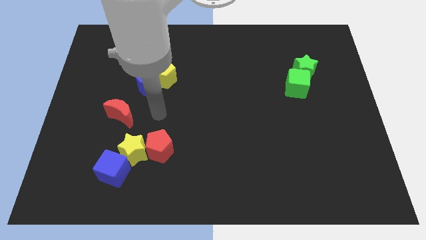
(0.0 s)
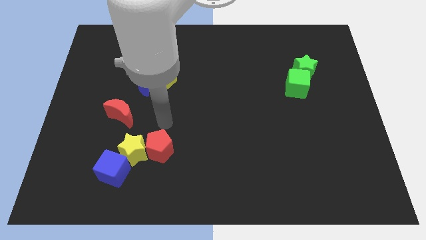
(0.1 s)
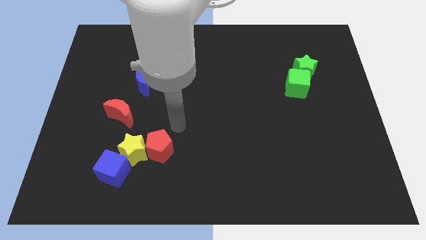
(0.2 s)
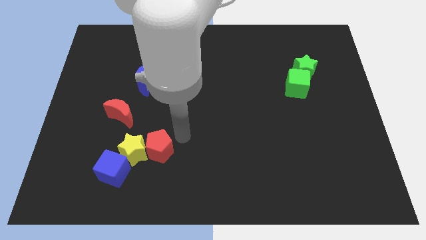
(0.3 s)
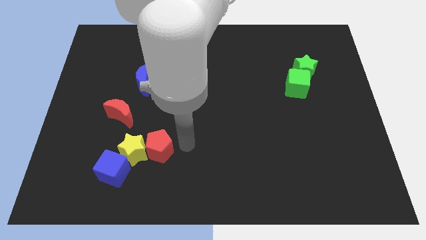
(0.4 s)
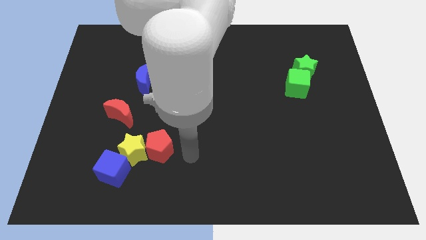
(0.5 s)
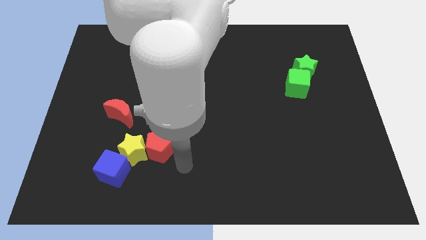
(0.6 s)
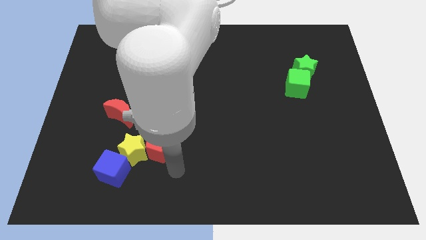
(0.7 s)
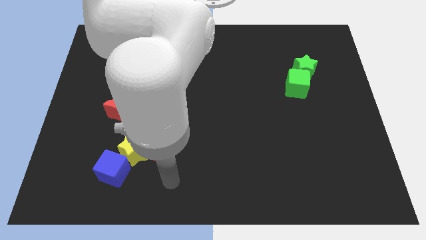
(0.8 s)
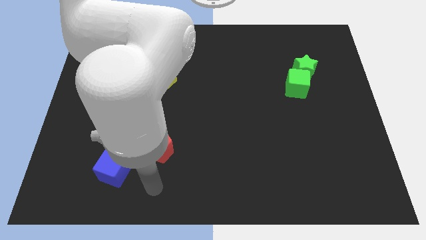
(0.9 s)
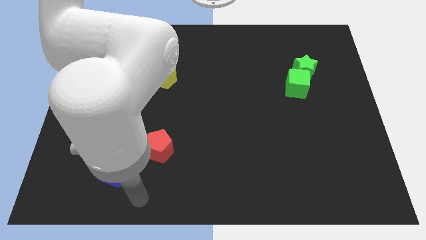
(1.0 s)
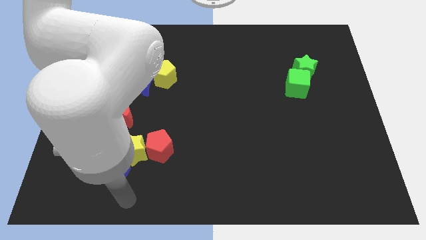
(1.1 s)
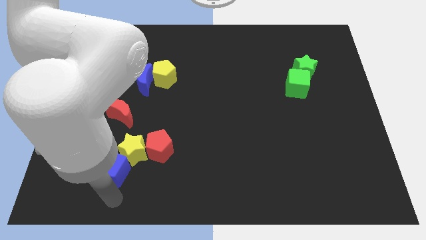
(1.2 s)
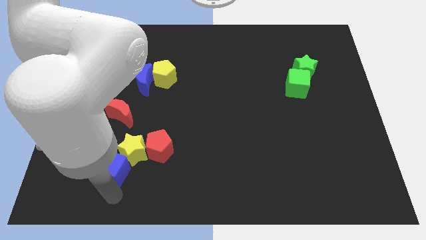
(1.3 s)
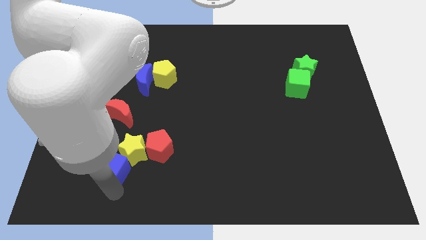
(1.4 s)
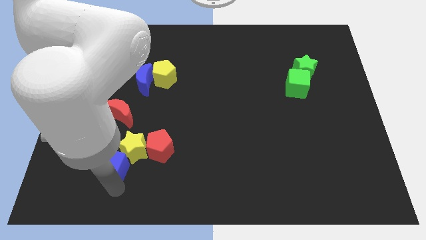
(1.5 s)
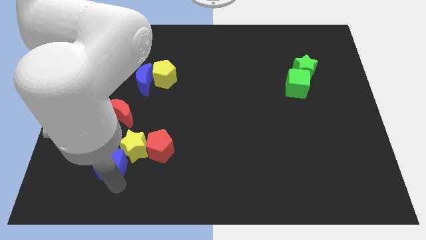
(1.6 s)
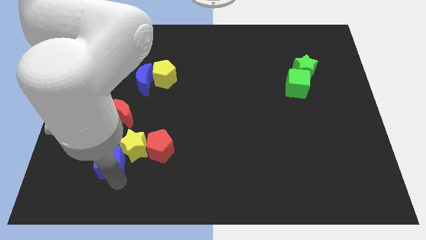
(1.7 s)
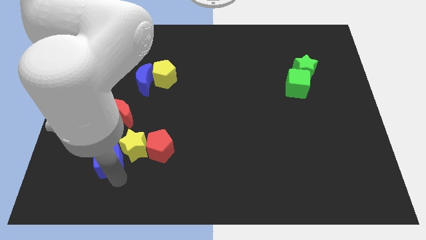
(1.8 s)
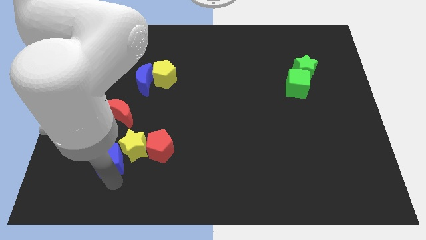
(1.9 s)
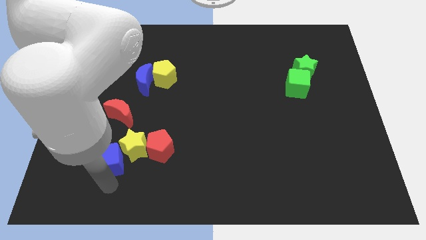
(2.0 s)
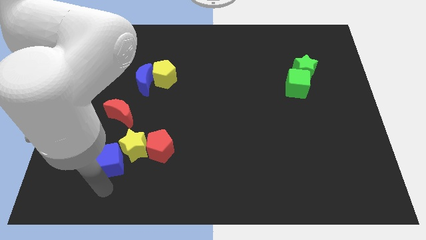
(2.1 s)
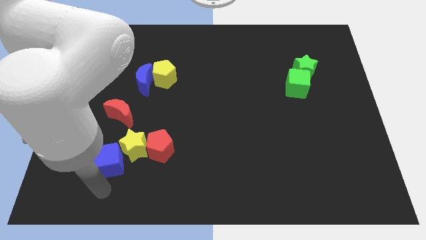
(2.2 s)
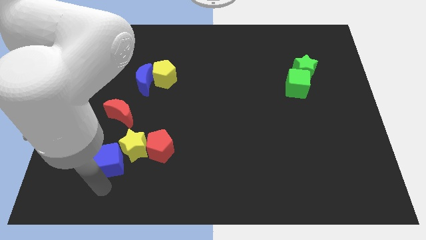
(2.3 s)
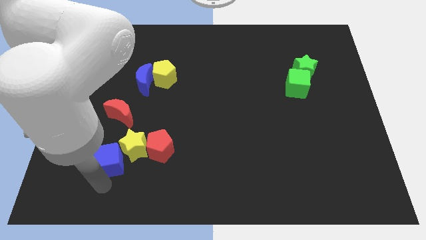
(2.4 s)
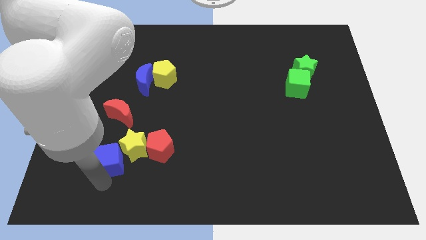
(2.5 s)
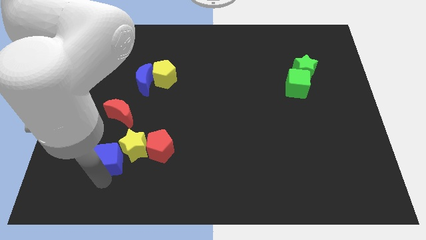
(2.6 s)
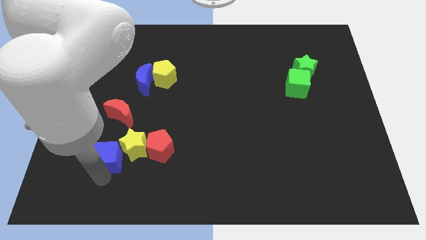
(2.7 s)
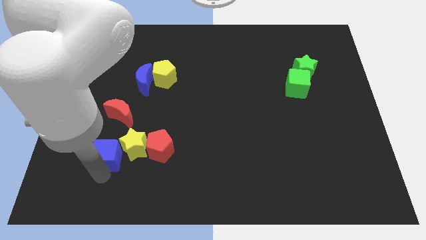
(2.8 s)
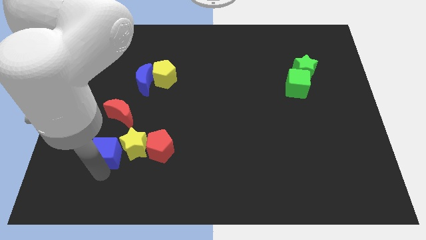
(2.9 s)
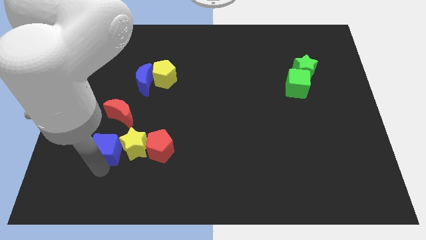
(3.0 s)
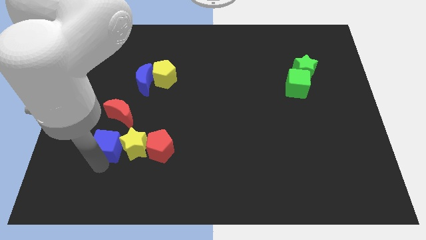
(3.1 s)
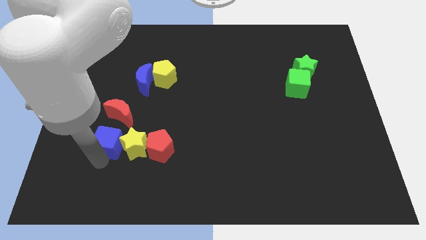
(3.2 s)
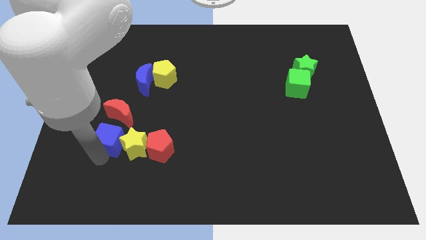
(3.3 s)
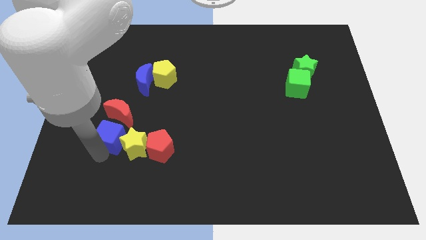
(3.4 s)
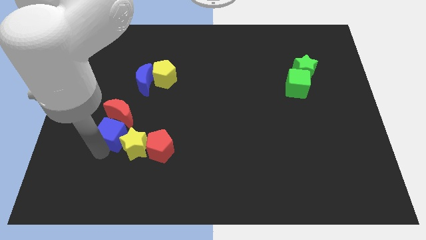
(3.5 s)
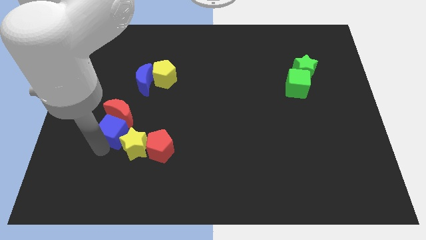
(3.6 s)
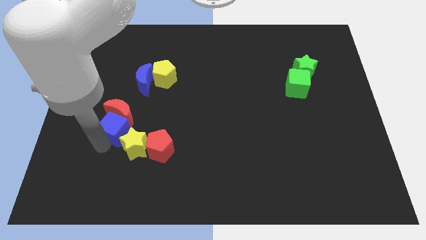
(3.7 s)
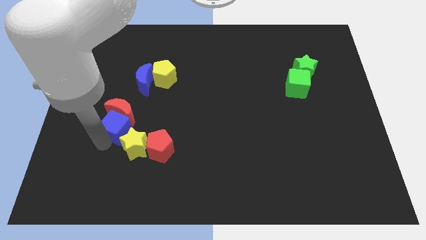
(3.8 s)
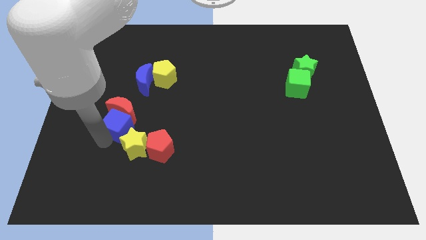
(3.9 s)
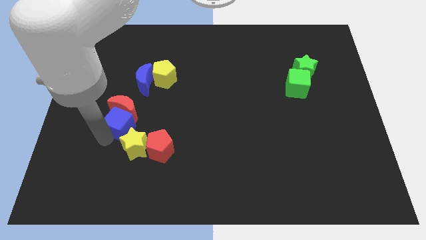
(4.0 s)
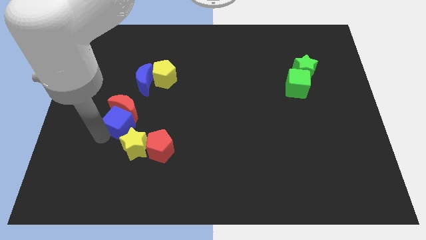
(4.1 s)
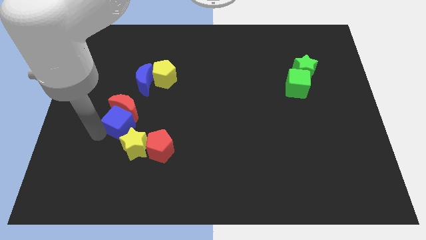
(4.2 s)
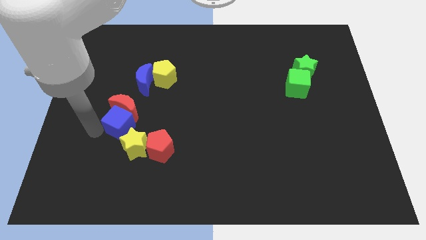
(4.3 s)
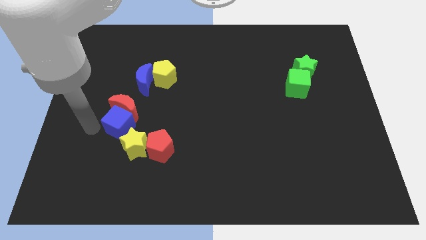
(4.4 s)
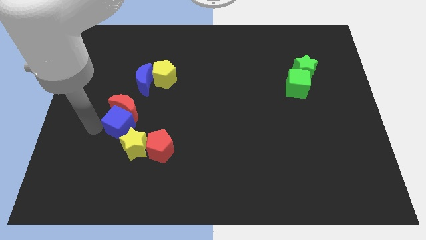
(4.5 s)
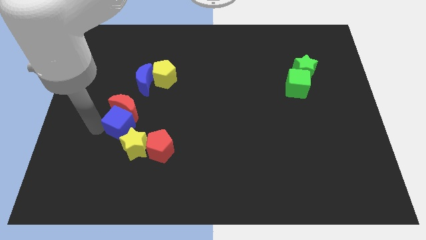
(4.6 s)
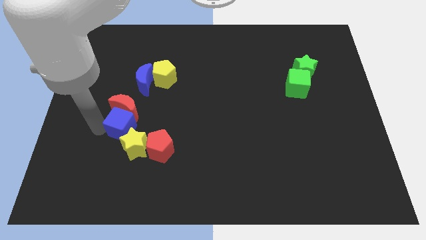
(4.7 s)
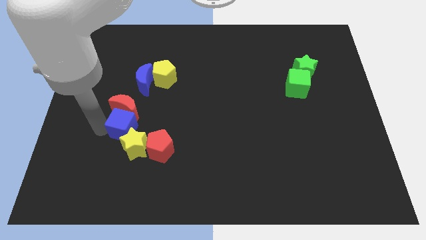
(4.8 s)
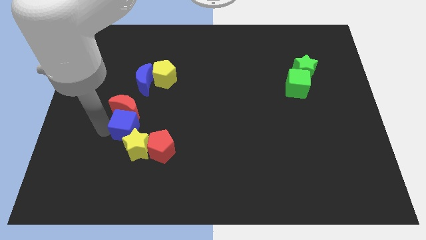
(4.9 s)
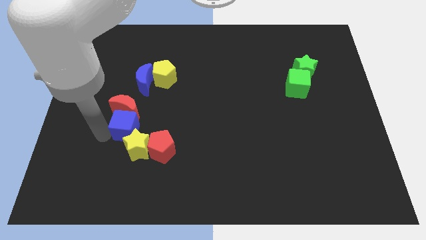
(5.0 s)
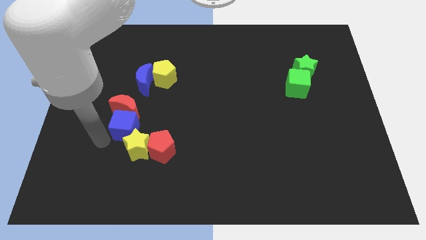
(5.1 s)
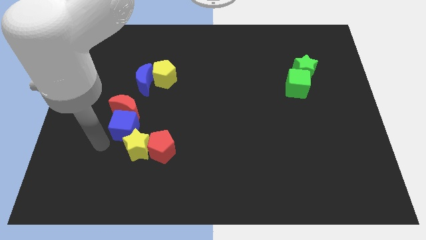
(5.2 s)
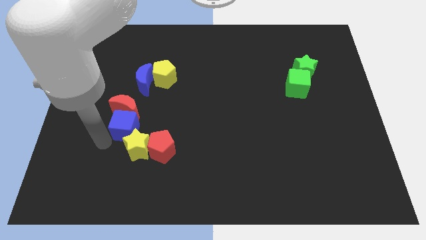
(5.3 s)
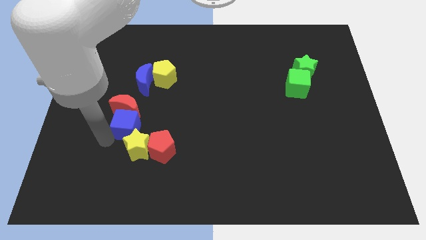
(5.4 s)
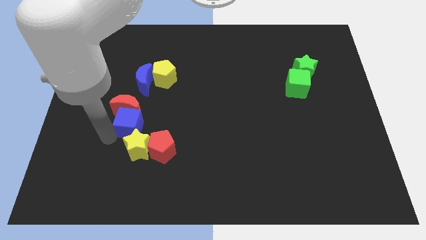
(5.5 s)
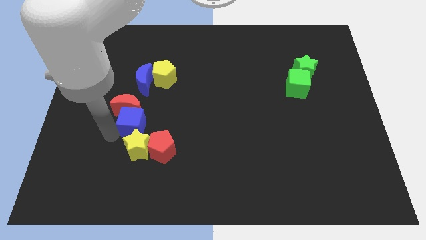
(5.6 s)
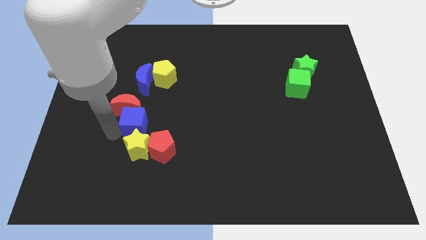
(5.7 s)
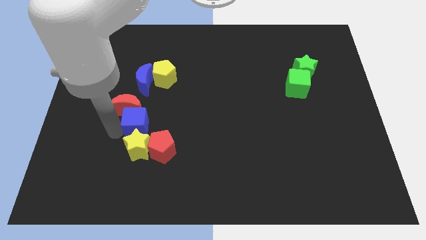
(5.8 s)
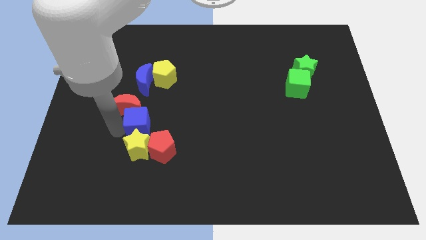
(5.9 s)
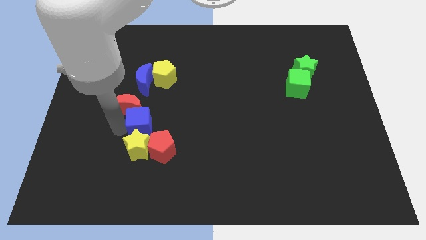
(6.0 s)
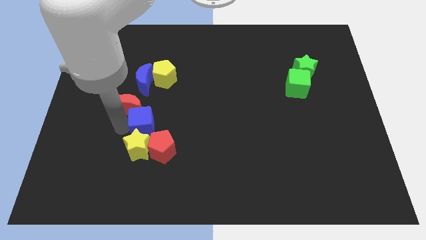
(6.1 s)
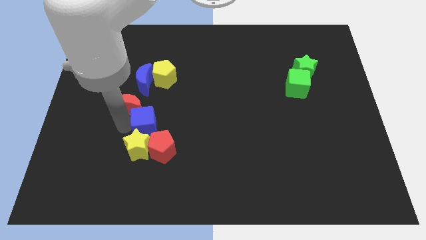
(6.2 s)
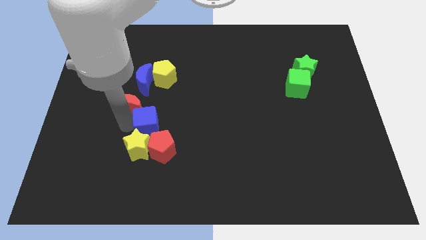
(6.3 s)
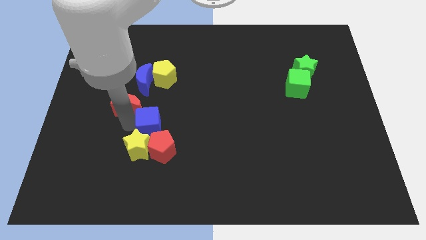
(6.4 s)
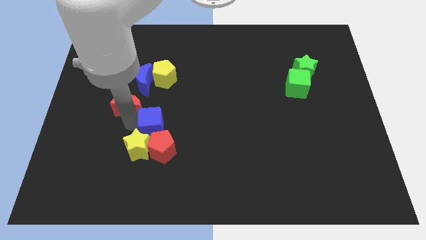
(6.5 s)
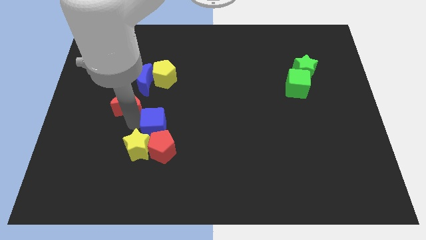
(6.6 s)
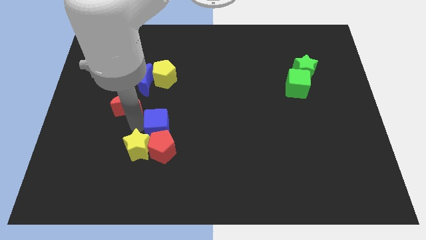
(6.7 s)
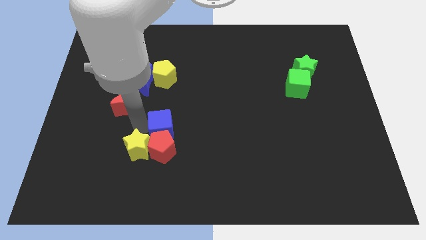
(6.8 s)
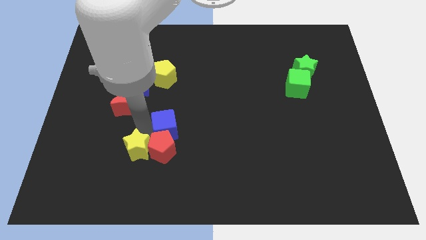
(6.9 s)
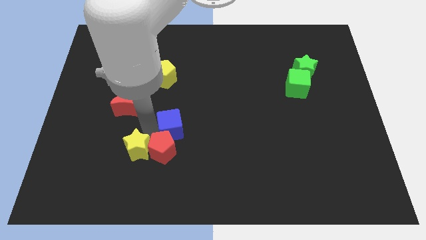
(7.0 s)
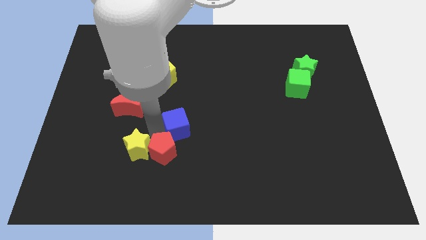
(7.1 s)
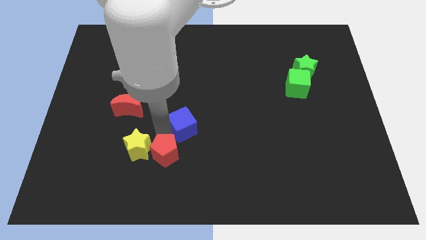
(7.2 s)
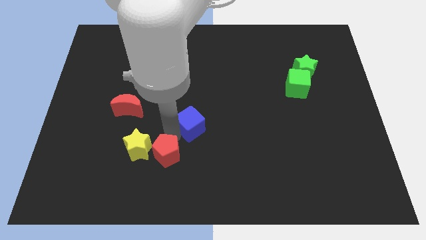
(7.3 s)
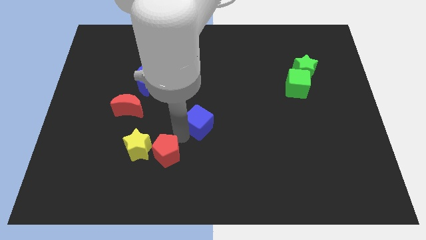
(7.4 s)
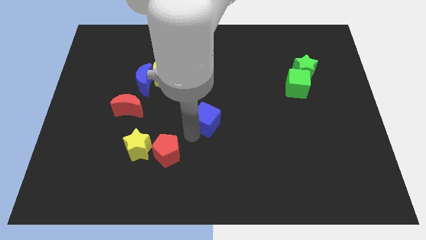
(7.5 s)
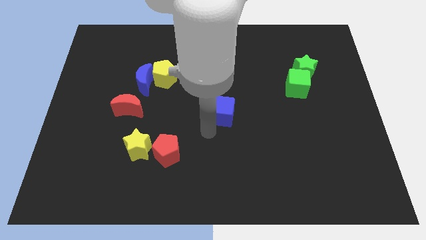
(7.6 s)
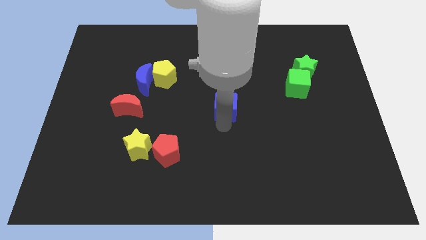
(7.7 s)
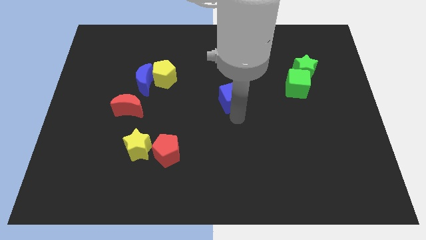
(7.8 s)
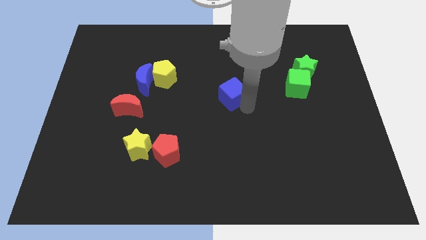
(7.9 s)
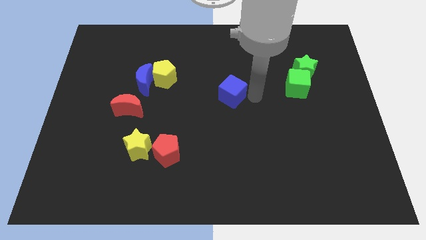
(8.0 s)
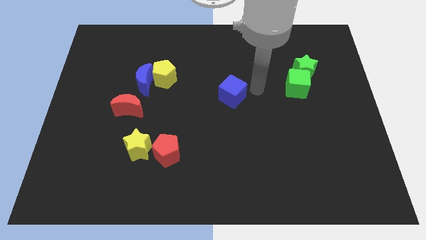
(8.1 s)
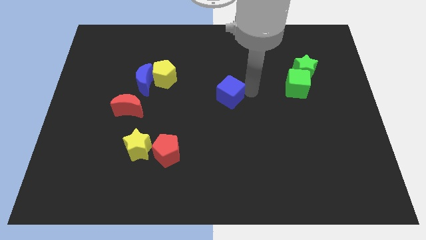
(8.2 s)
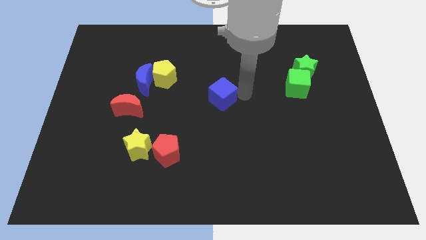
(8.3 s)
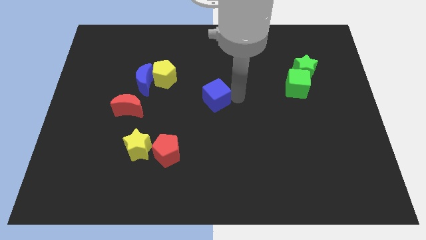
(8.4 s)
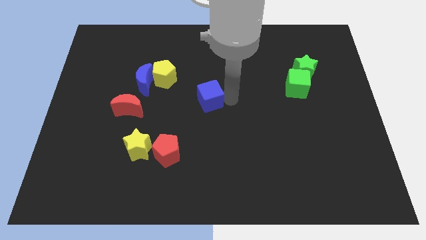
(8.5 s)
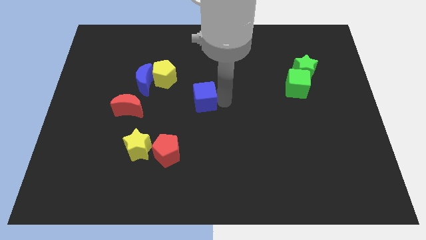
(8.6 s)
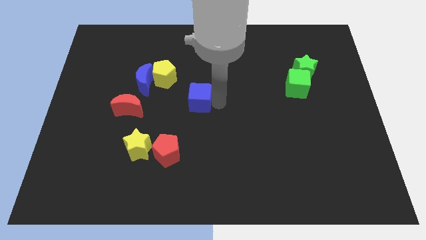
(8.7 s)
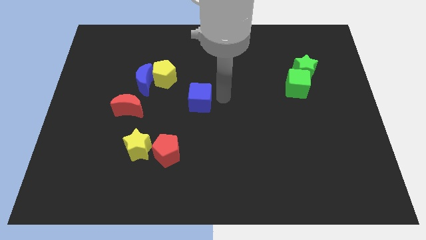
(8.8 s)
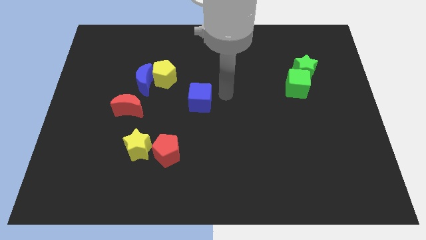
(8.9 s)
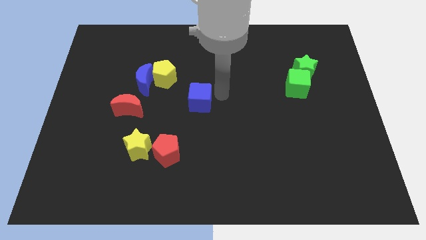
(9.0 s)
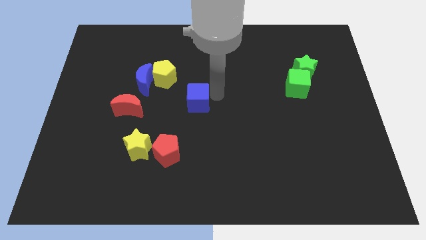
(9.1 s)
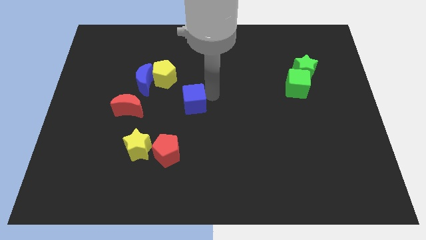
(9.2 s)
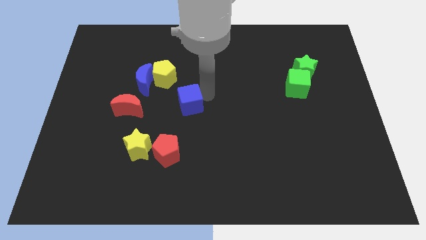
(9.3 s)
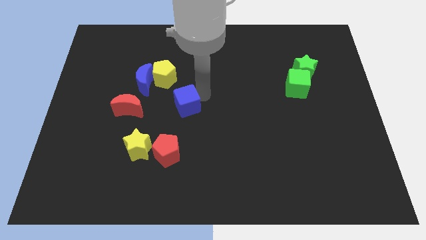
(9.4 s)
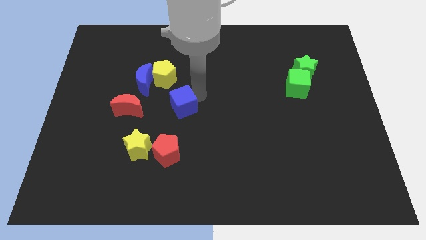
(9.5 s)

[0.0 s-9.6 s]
slide the blue cube to the bottom right side of the blue moon
